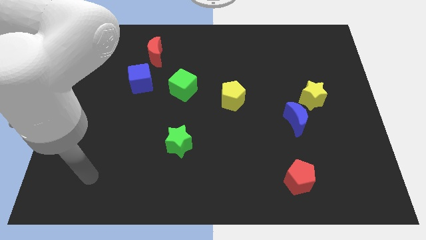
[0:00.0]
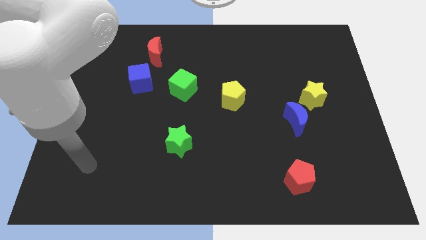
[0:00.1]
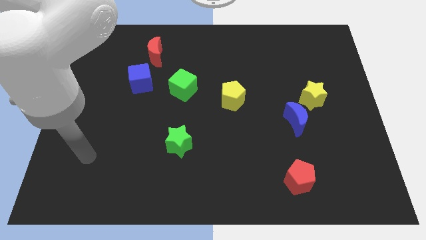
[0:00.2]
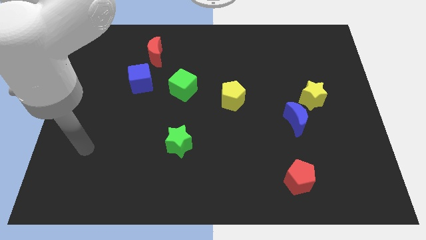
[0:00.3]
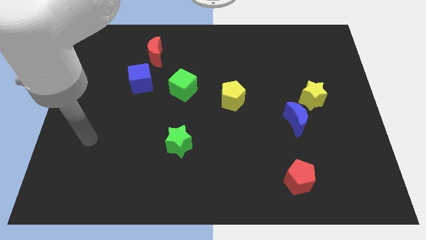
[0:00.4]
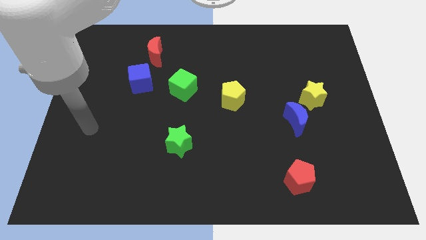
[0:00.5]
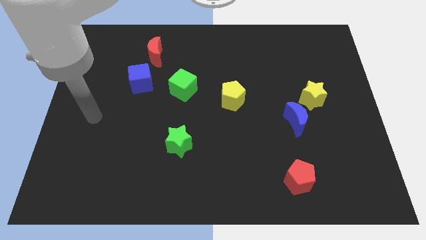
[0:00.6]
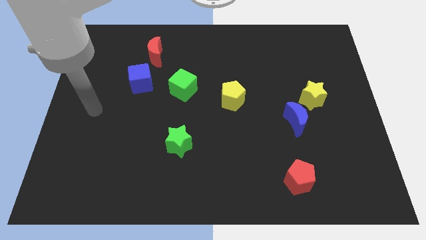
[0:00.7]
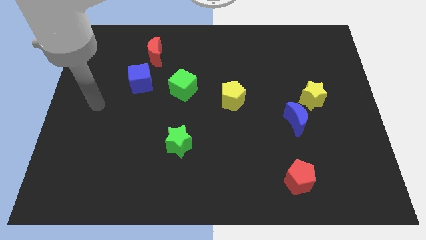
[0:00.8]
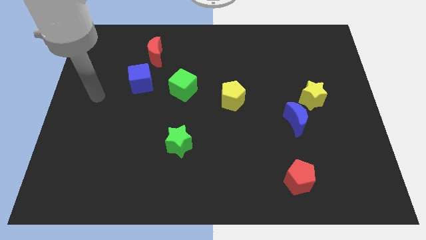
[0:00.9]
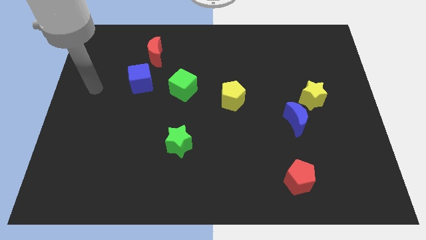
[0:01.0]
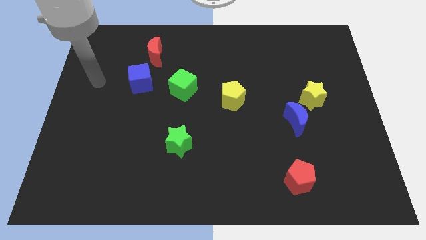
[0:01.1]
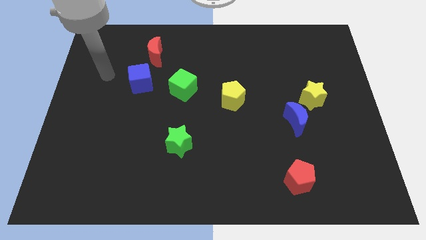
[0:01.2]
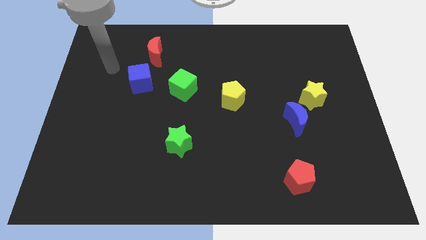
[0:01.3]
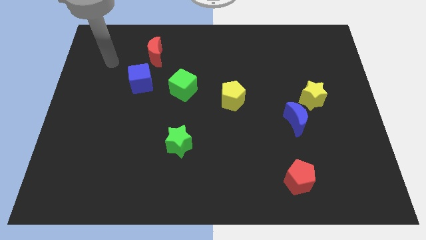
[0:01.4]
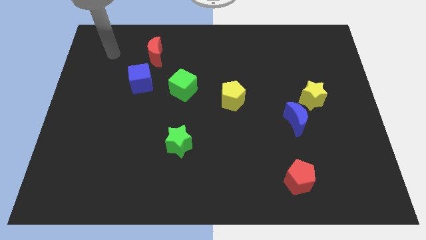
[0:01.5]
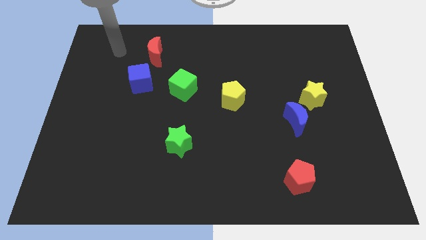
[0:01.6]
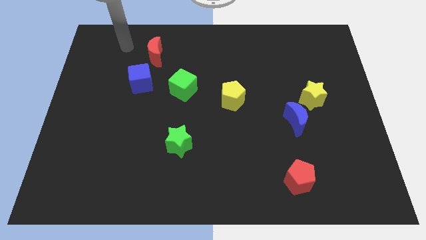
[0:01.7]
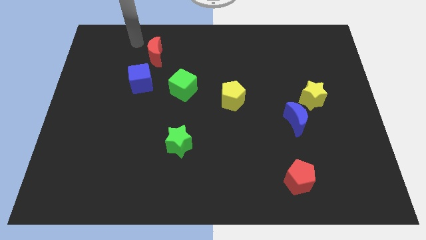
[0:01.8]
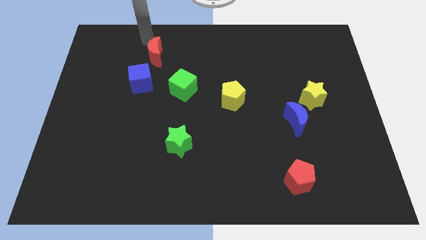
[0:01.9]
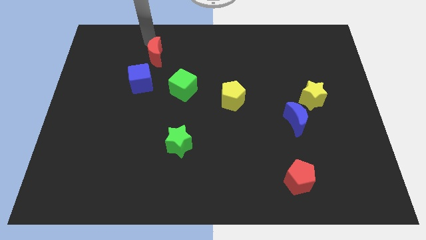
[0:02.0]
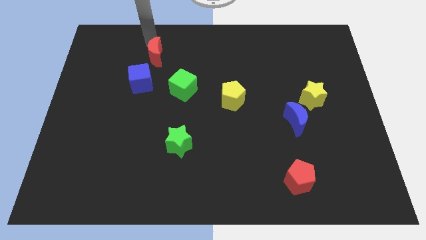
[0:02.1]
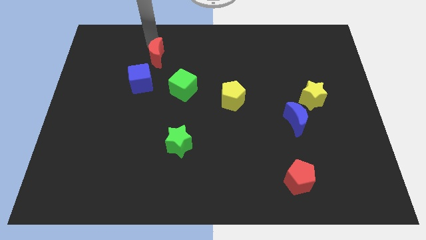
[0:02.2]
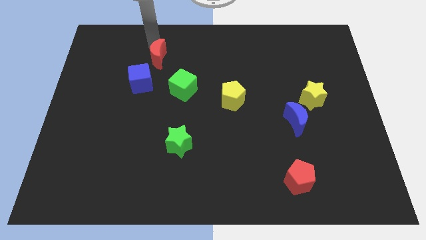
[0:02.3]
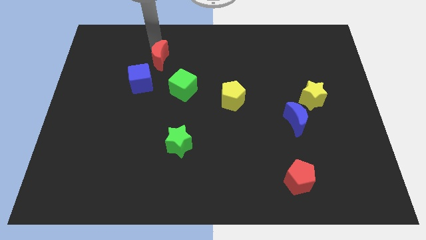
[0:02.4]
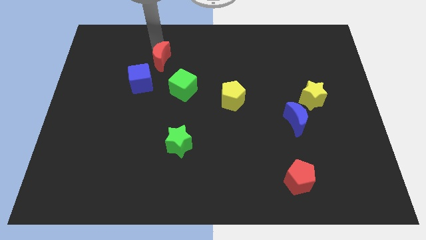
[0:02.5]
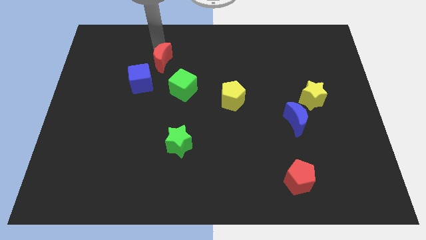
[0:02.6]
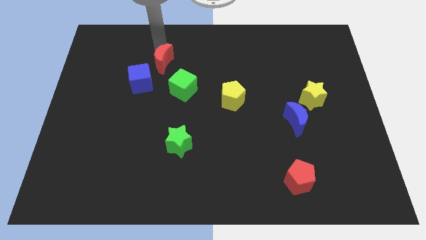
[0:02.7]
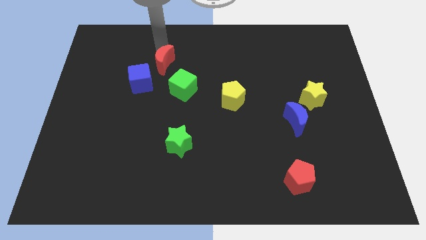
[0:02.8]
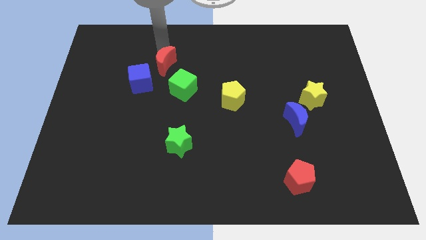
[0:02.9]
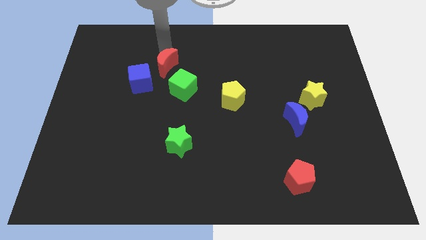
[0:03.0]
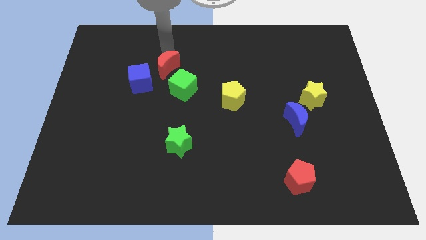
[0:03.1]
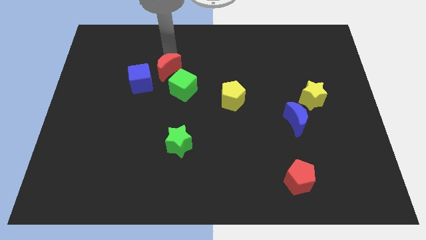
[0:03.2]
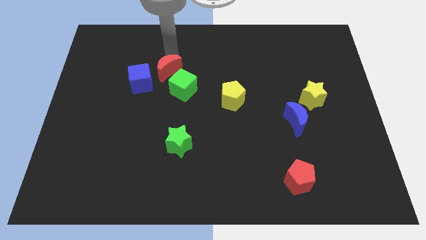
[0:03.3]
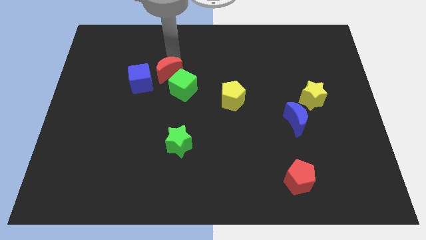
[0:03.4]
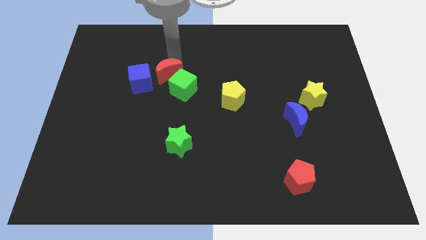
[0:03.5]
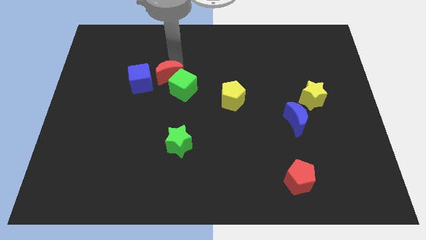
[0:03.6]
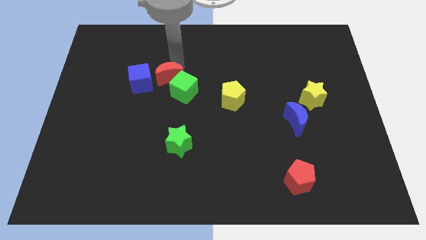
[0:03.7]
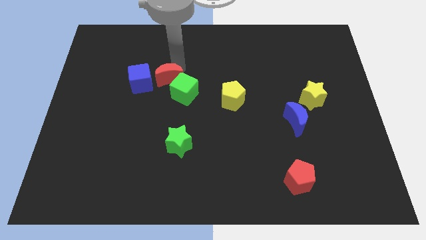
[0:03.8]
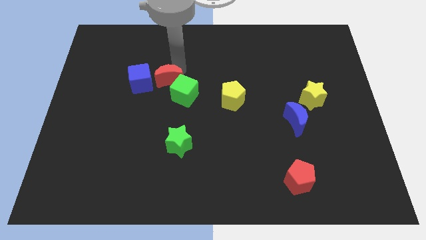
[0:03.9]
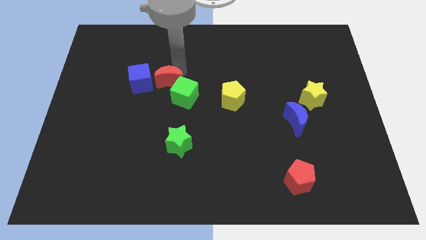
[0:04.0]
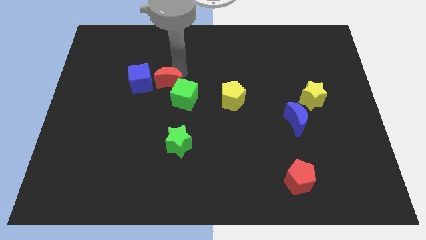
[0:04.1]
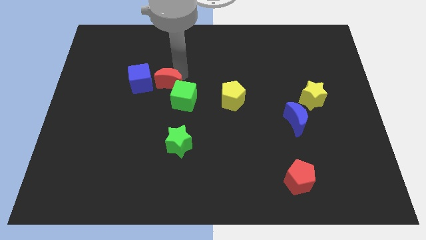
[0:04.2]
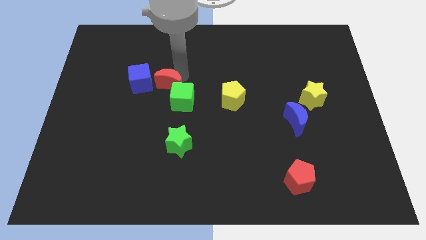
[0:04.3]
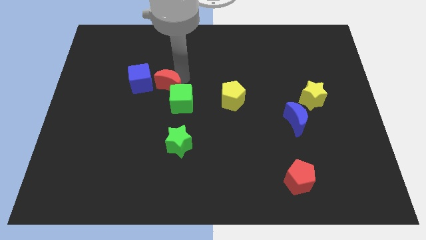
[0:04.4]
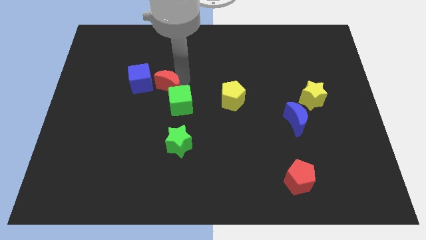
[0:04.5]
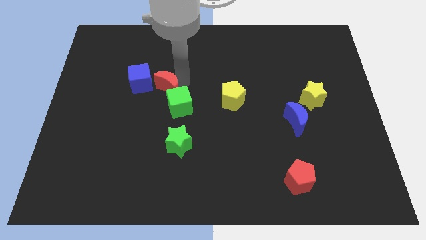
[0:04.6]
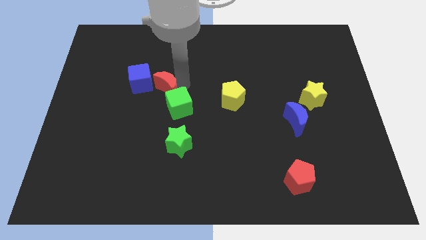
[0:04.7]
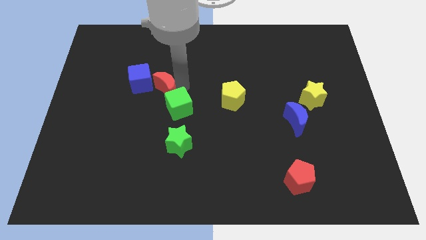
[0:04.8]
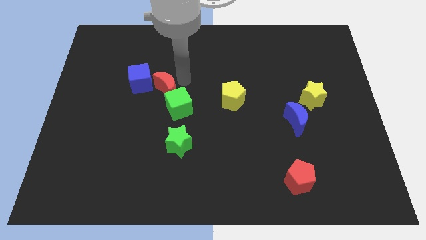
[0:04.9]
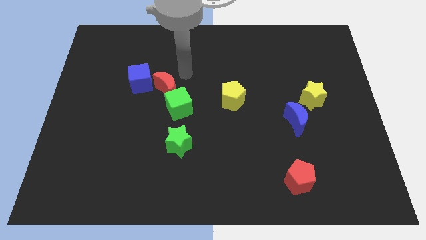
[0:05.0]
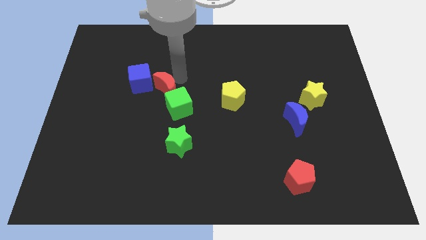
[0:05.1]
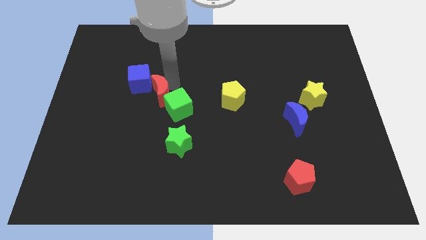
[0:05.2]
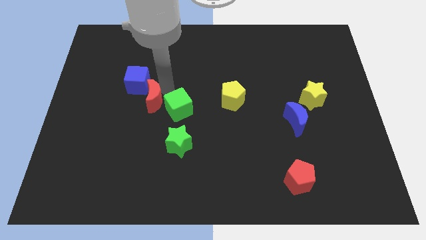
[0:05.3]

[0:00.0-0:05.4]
push the red moon to the bottom of the blue cube

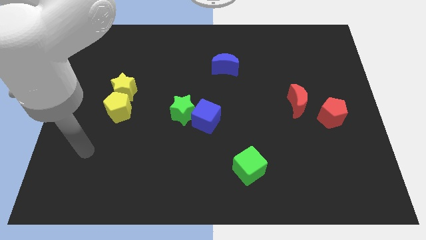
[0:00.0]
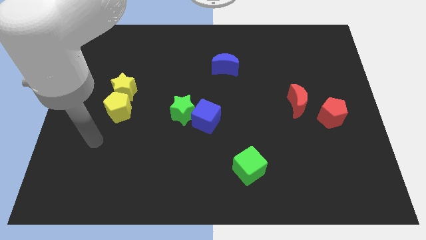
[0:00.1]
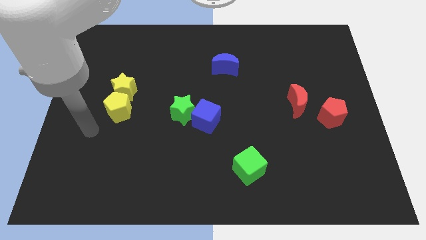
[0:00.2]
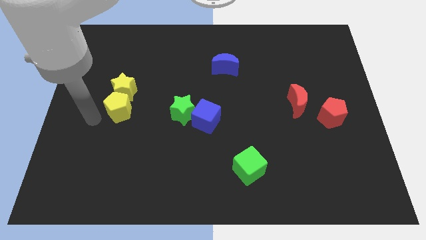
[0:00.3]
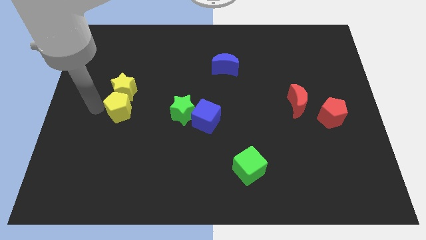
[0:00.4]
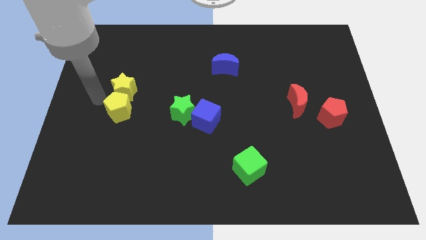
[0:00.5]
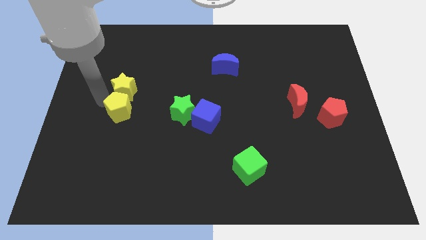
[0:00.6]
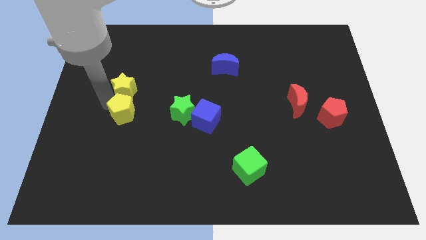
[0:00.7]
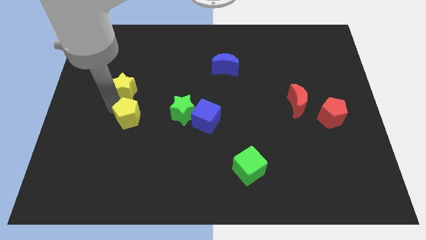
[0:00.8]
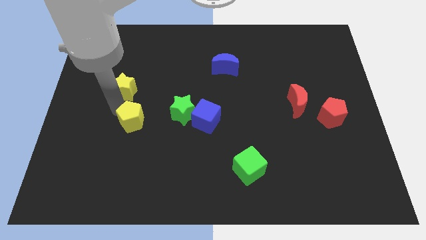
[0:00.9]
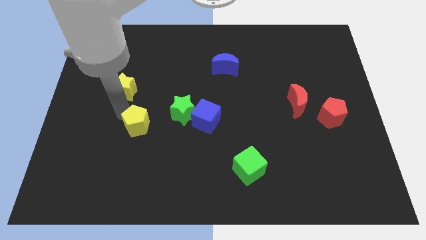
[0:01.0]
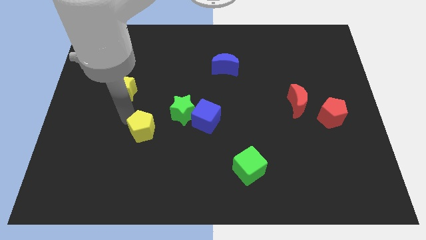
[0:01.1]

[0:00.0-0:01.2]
slide the yellow pentagon to the bottom left of the green star
